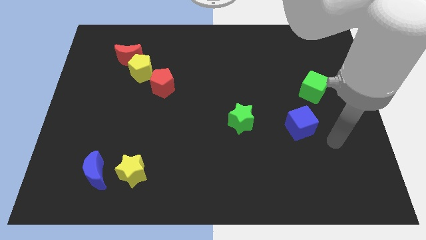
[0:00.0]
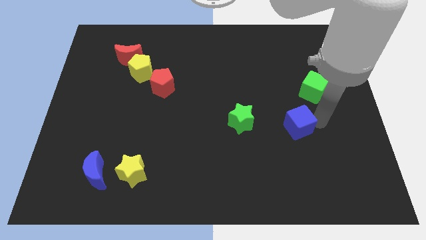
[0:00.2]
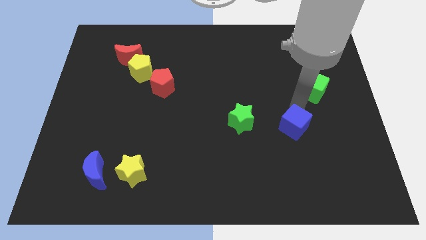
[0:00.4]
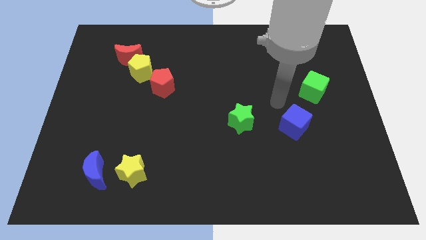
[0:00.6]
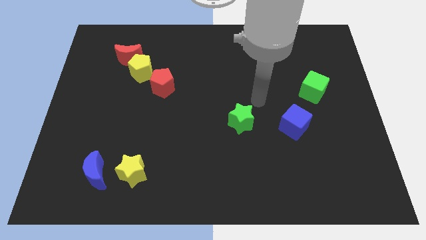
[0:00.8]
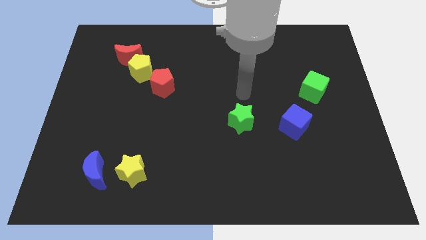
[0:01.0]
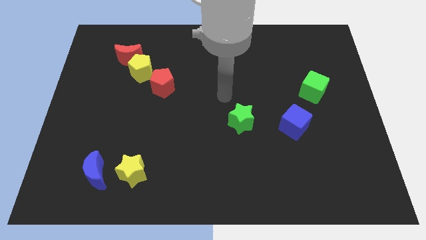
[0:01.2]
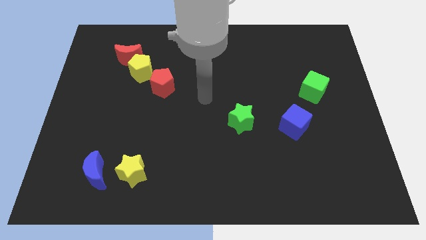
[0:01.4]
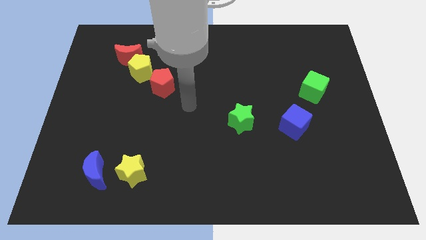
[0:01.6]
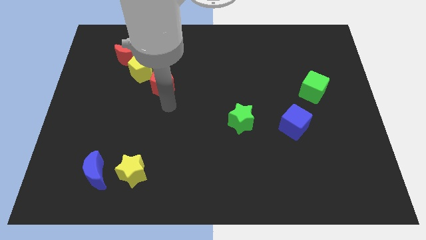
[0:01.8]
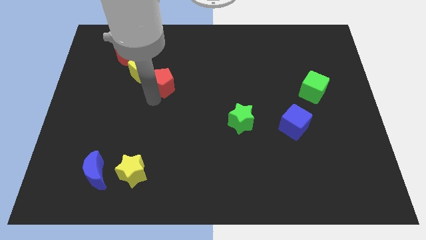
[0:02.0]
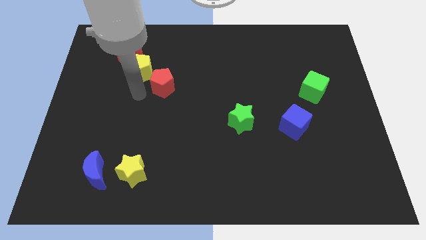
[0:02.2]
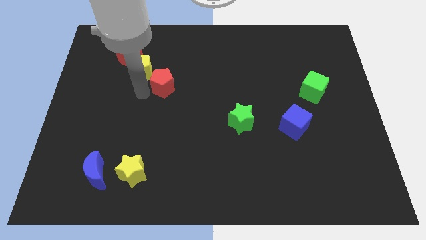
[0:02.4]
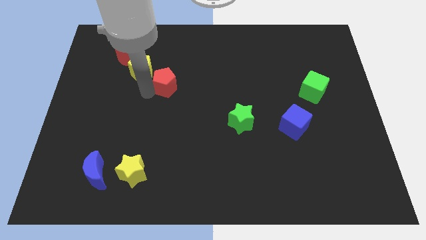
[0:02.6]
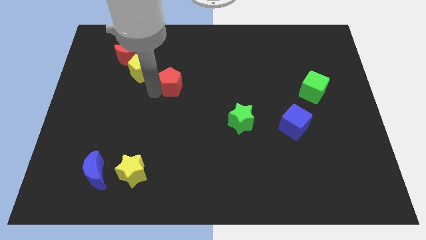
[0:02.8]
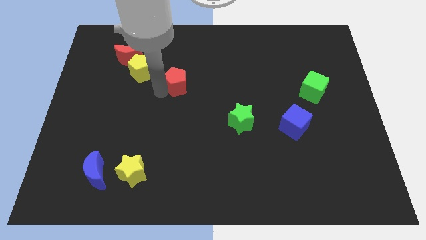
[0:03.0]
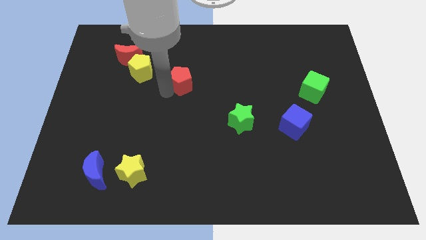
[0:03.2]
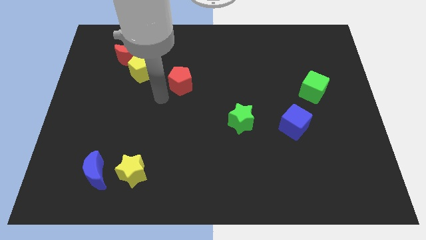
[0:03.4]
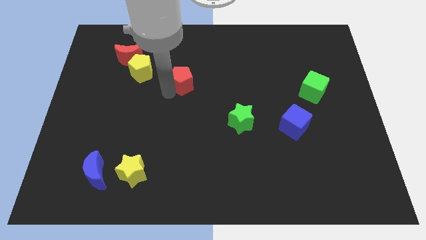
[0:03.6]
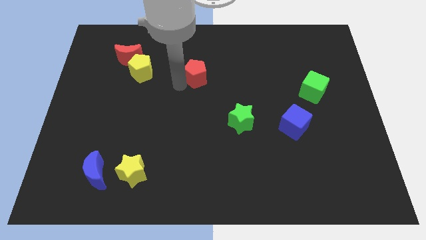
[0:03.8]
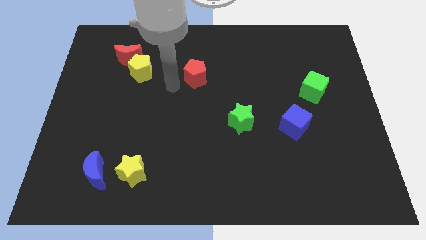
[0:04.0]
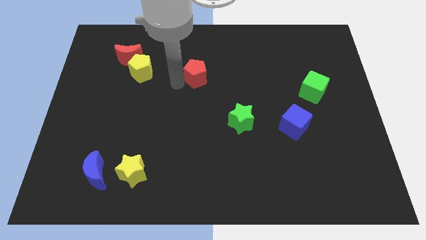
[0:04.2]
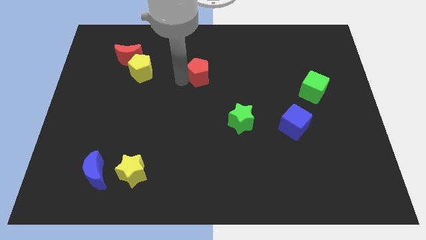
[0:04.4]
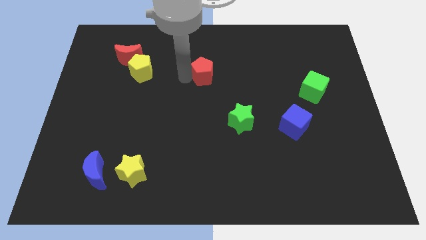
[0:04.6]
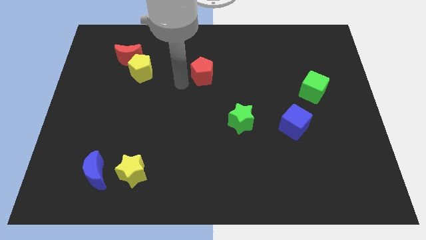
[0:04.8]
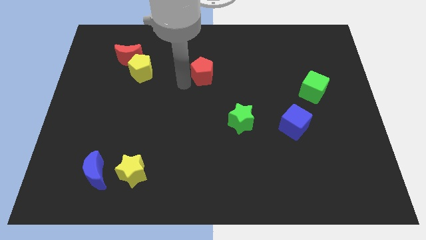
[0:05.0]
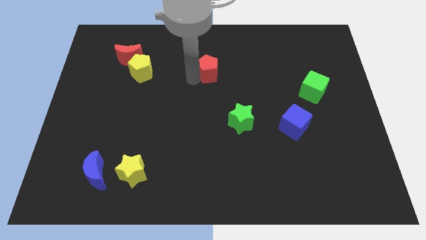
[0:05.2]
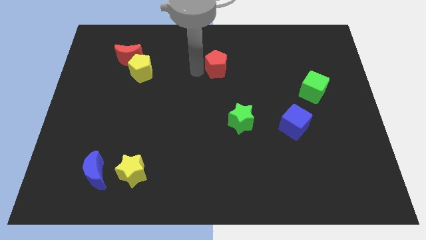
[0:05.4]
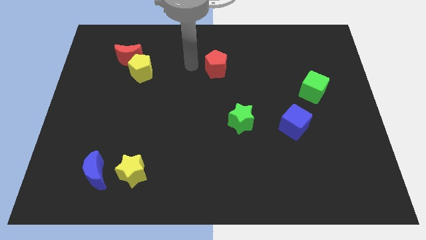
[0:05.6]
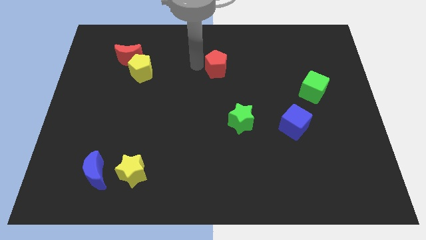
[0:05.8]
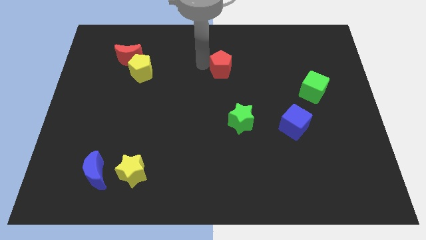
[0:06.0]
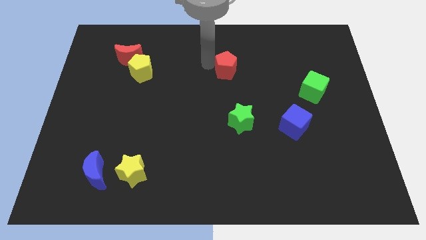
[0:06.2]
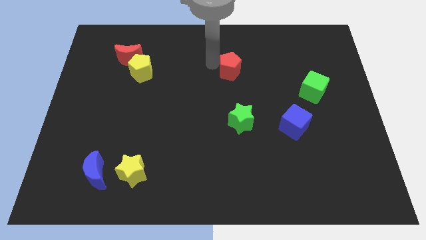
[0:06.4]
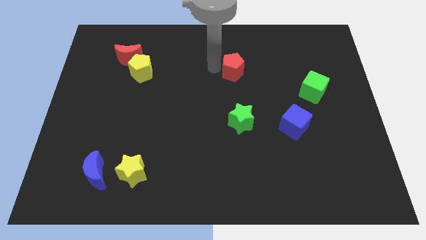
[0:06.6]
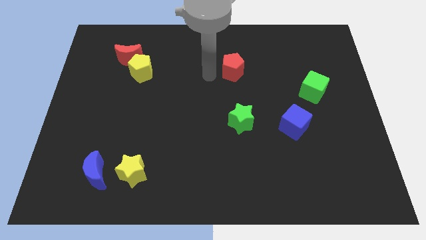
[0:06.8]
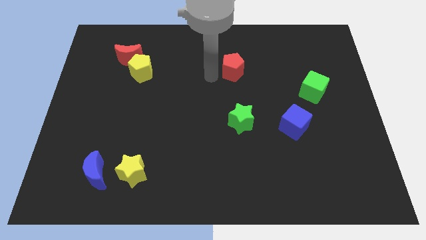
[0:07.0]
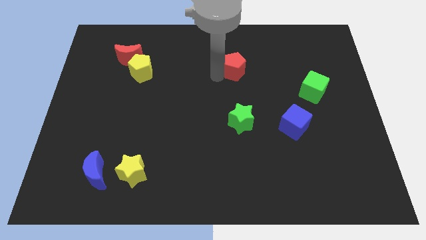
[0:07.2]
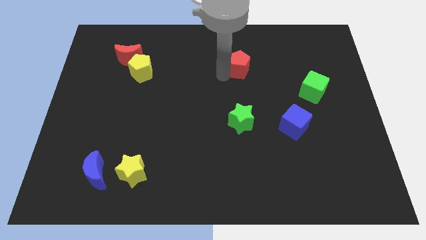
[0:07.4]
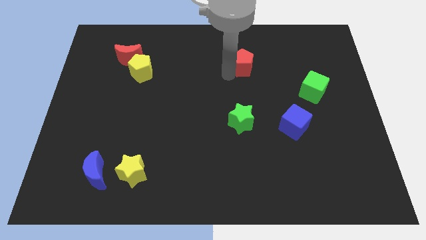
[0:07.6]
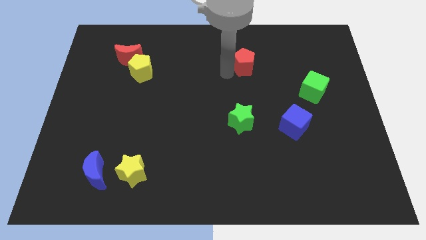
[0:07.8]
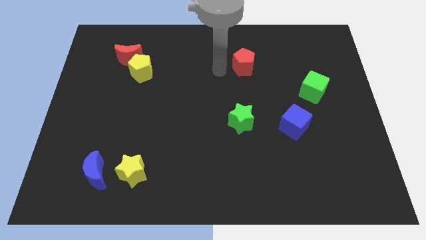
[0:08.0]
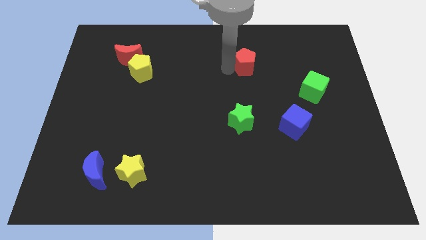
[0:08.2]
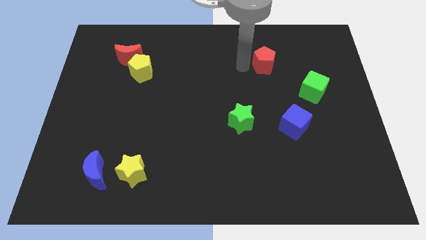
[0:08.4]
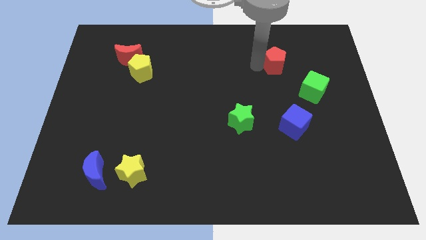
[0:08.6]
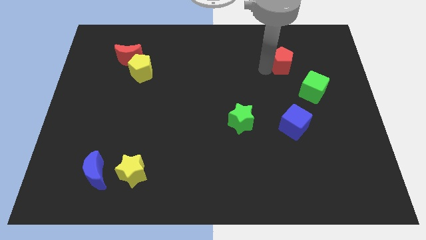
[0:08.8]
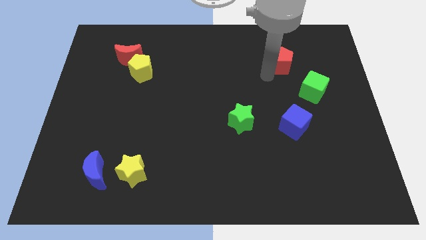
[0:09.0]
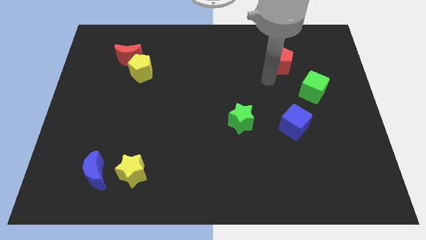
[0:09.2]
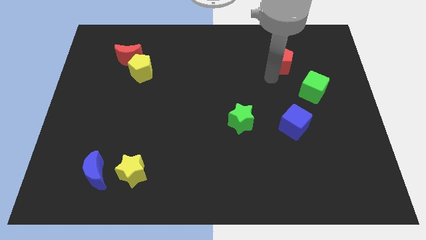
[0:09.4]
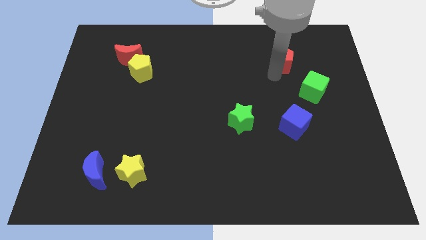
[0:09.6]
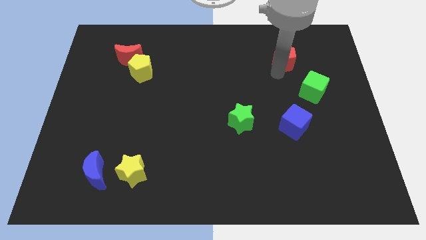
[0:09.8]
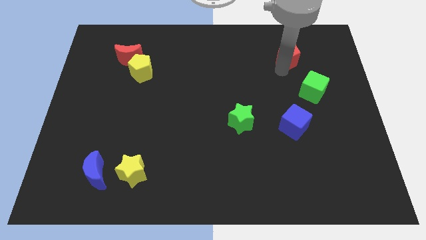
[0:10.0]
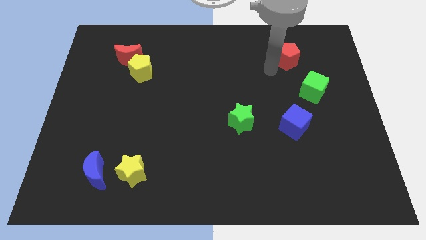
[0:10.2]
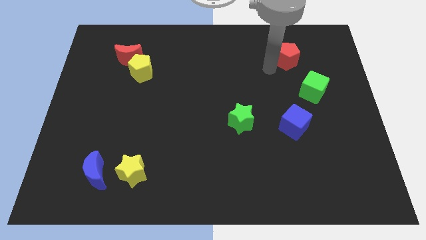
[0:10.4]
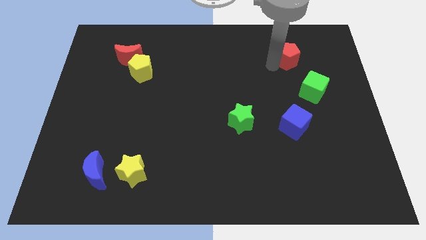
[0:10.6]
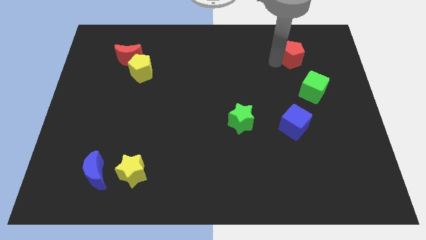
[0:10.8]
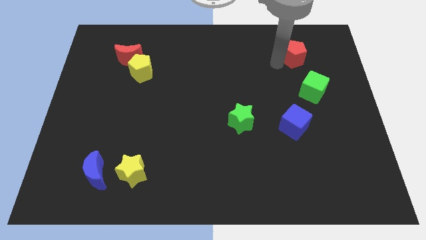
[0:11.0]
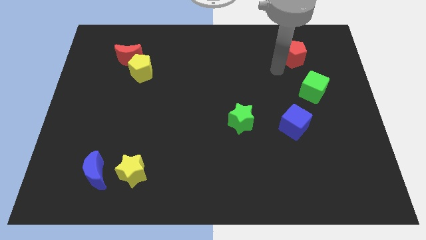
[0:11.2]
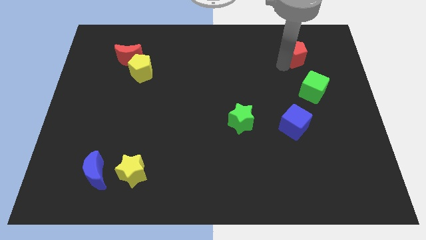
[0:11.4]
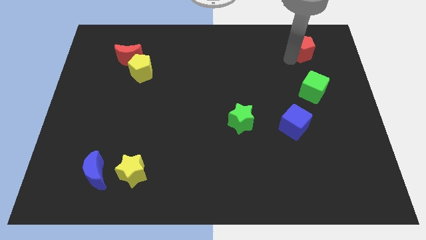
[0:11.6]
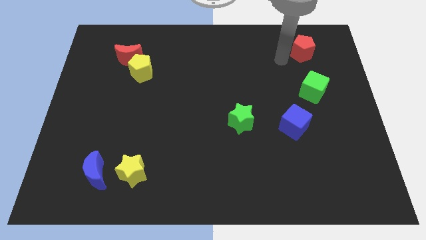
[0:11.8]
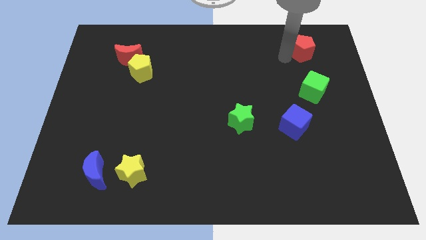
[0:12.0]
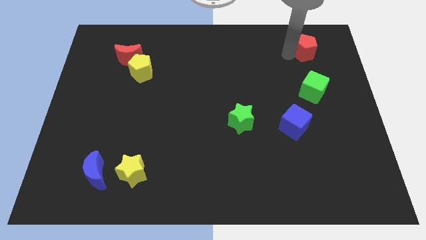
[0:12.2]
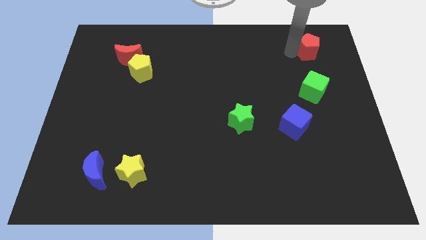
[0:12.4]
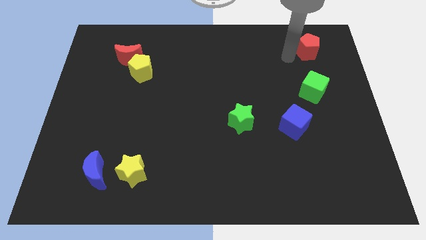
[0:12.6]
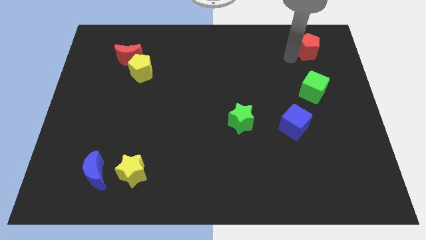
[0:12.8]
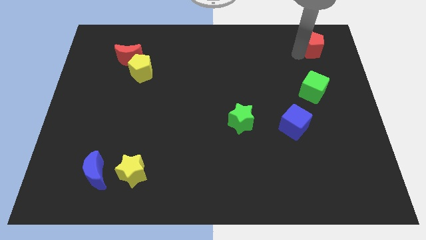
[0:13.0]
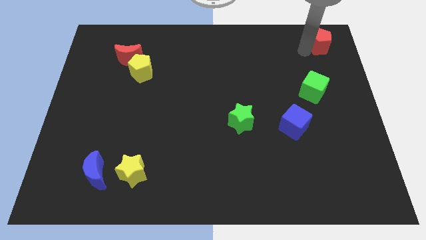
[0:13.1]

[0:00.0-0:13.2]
move the red pentagon to the upper right corner
